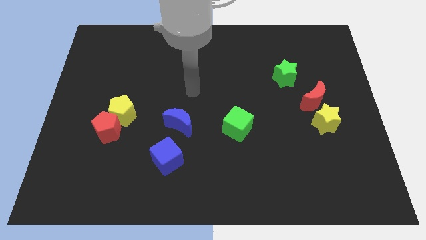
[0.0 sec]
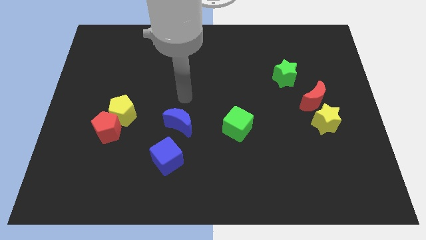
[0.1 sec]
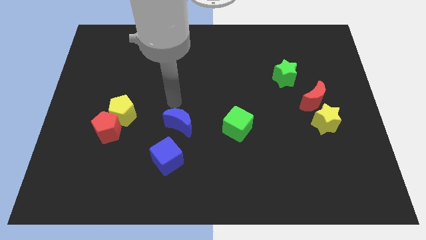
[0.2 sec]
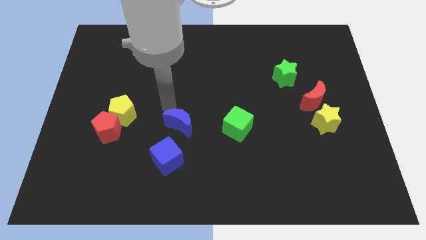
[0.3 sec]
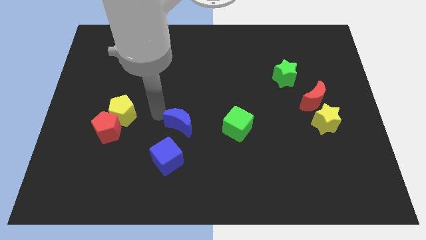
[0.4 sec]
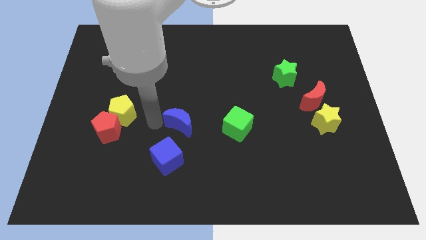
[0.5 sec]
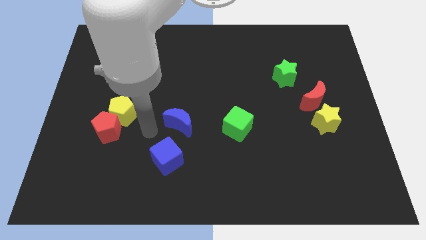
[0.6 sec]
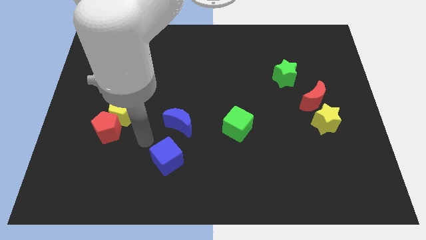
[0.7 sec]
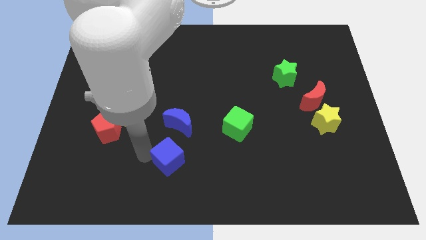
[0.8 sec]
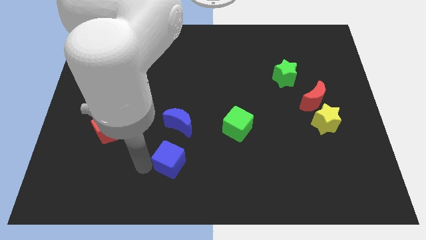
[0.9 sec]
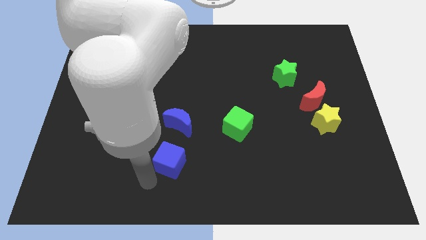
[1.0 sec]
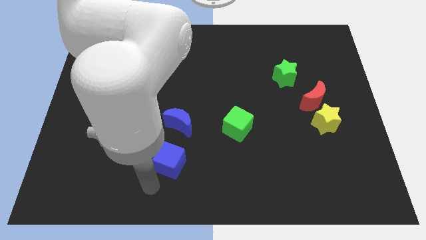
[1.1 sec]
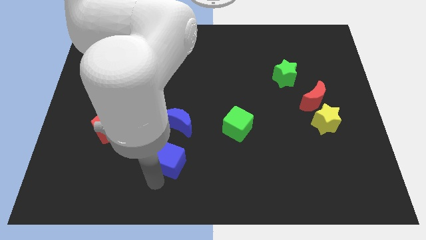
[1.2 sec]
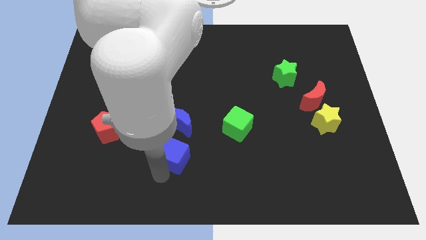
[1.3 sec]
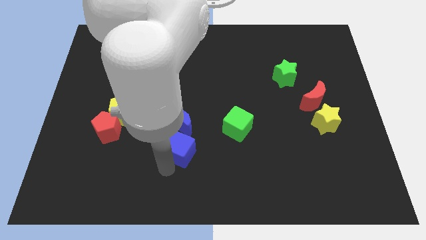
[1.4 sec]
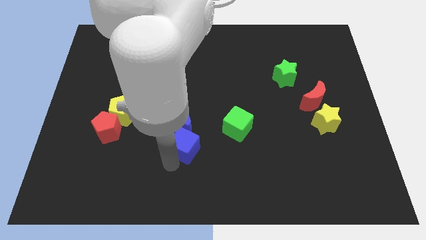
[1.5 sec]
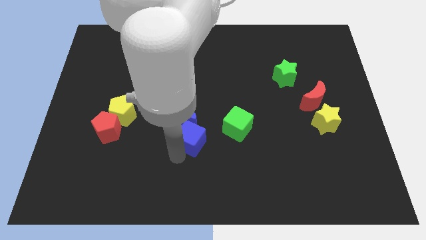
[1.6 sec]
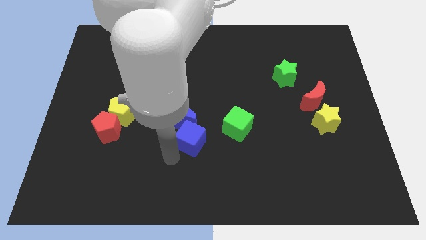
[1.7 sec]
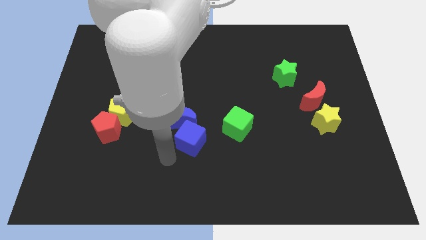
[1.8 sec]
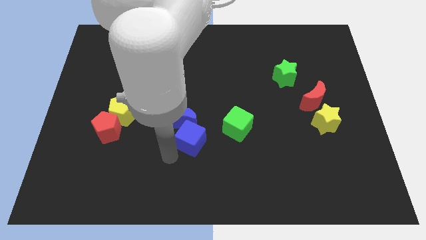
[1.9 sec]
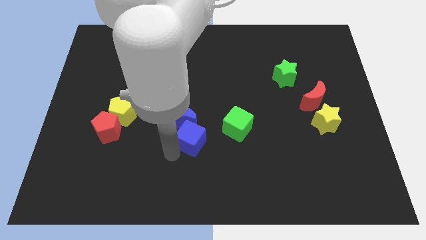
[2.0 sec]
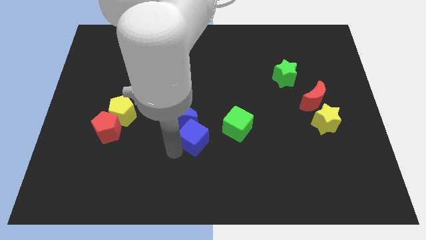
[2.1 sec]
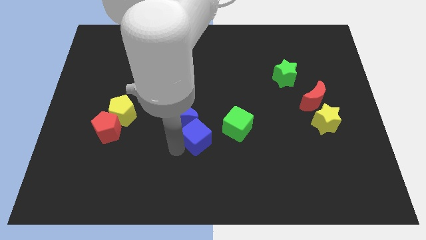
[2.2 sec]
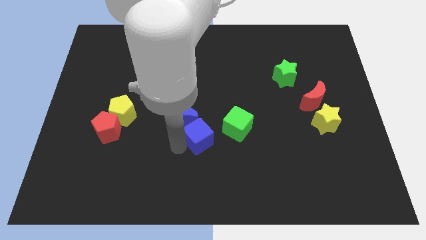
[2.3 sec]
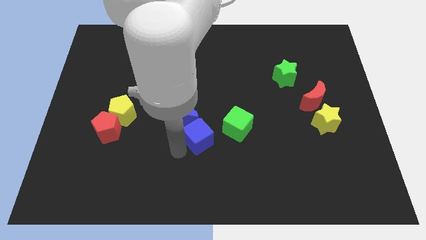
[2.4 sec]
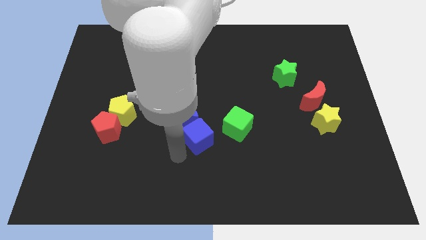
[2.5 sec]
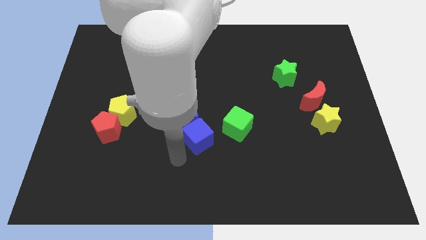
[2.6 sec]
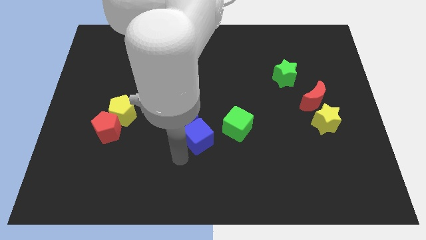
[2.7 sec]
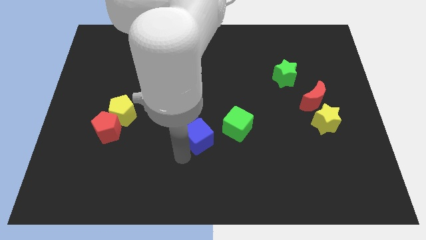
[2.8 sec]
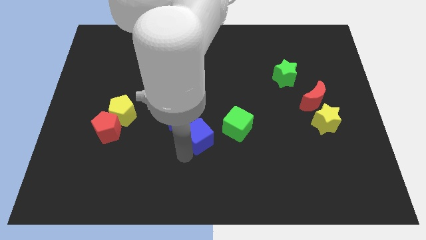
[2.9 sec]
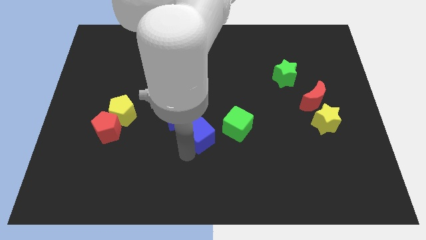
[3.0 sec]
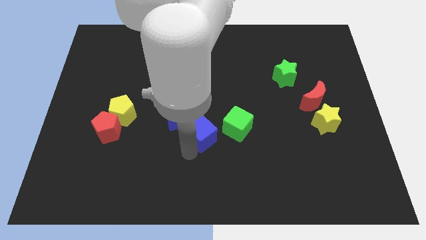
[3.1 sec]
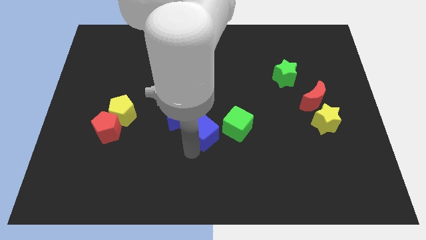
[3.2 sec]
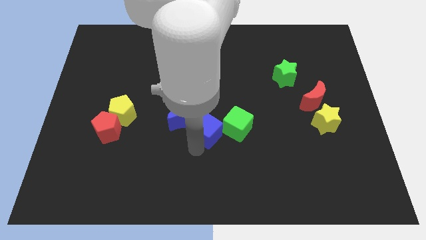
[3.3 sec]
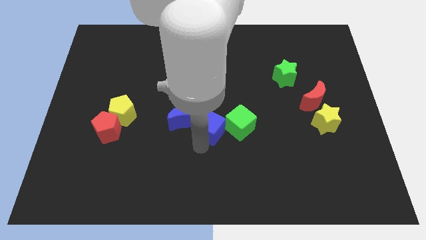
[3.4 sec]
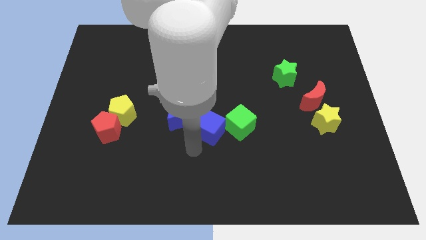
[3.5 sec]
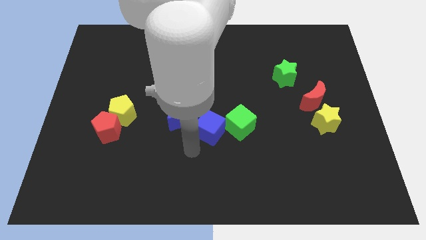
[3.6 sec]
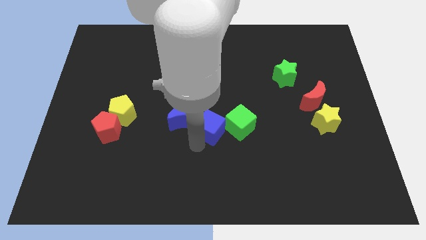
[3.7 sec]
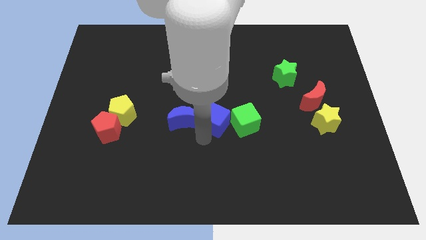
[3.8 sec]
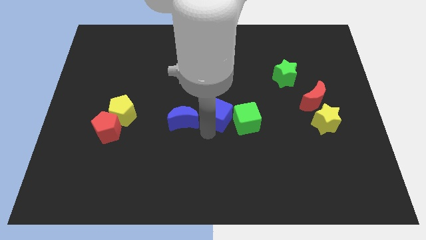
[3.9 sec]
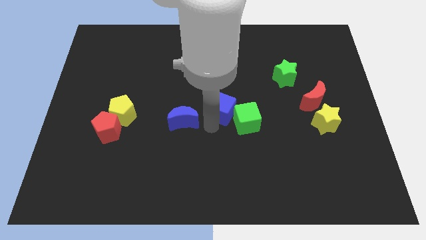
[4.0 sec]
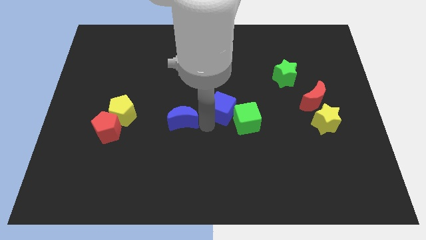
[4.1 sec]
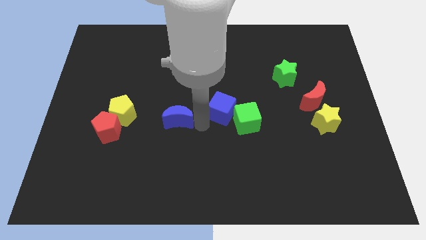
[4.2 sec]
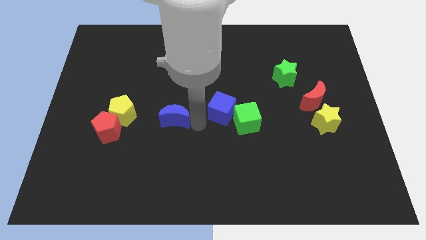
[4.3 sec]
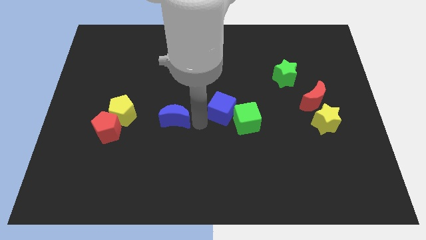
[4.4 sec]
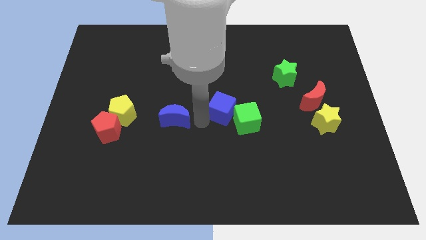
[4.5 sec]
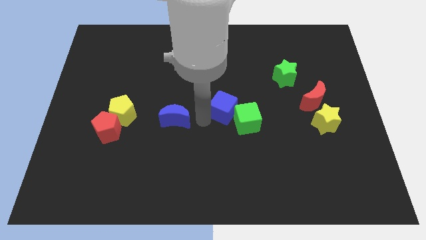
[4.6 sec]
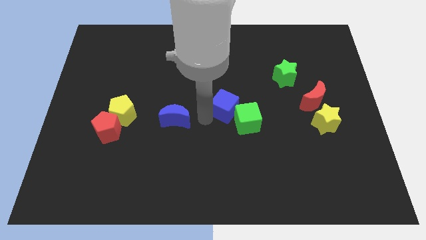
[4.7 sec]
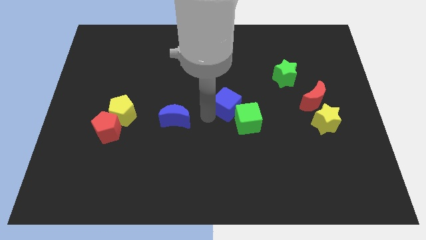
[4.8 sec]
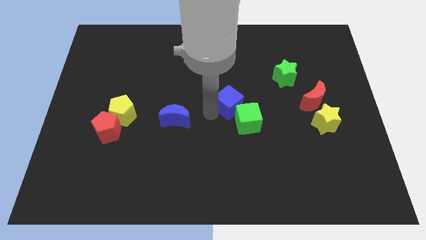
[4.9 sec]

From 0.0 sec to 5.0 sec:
push the blue cube upwards and right diagonally

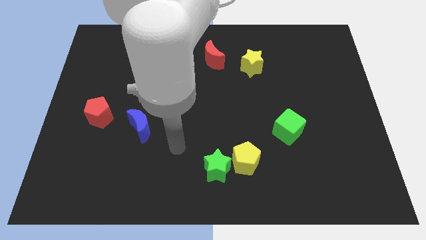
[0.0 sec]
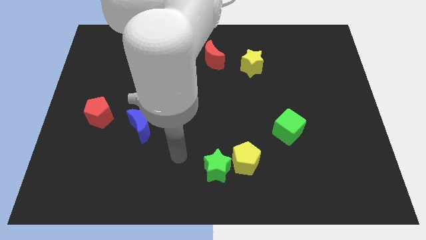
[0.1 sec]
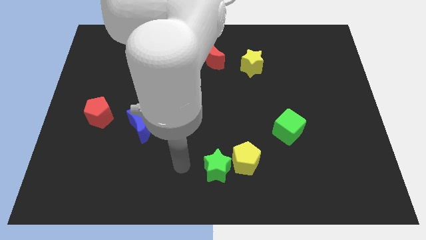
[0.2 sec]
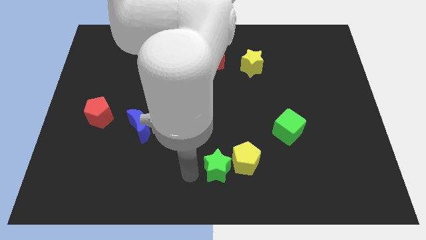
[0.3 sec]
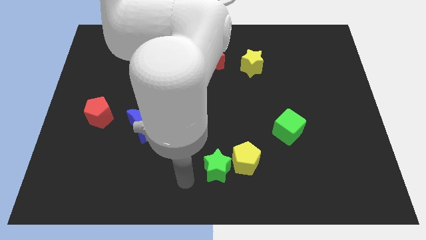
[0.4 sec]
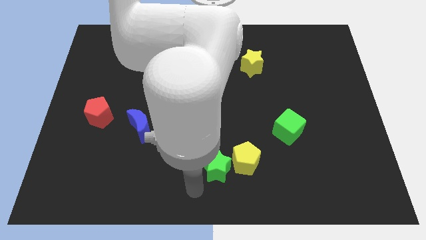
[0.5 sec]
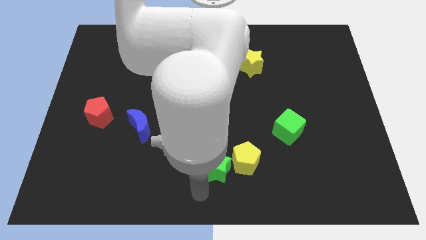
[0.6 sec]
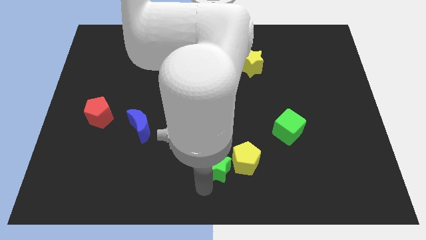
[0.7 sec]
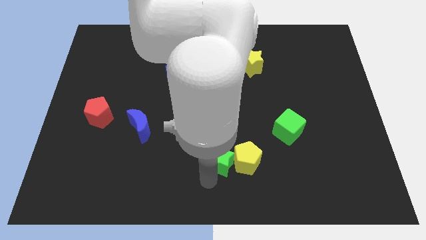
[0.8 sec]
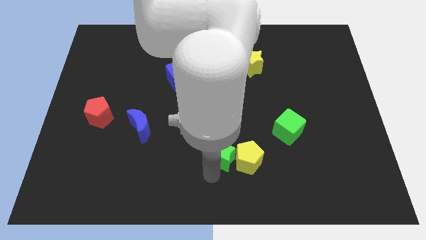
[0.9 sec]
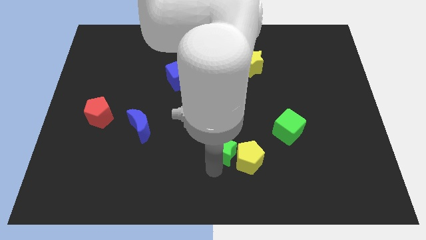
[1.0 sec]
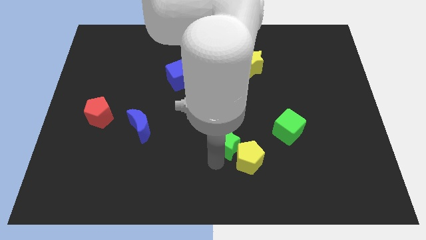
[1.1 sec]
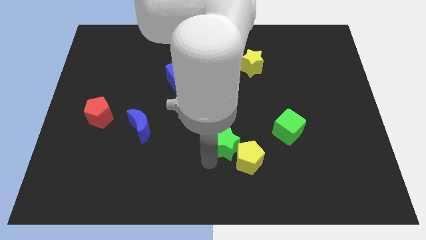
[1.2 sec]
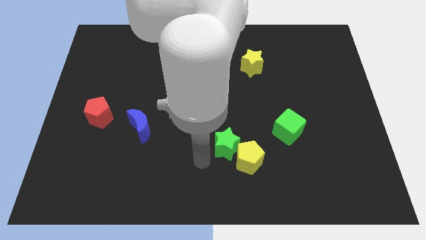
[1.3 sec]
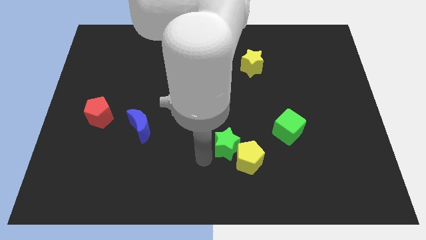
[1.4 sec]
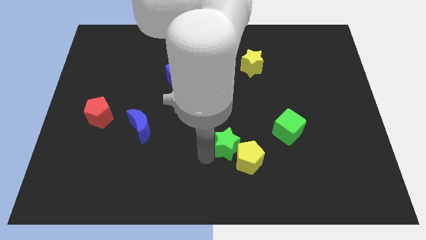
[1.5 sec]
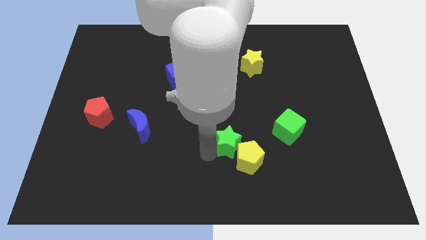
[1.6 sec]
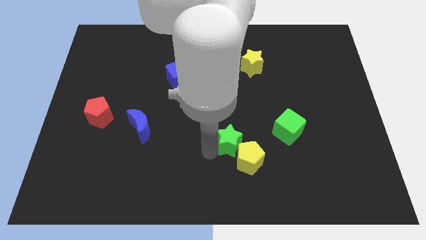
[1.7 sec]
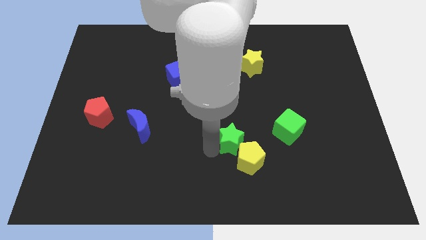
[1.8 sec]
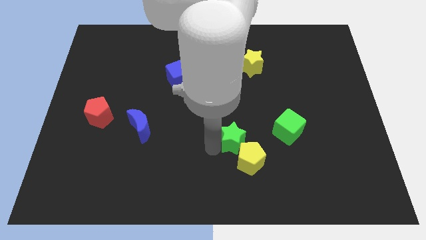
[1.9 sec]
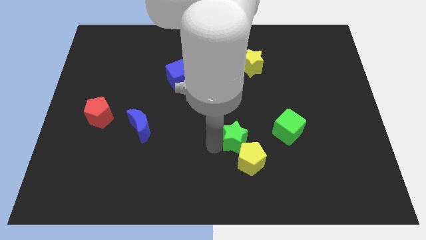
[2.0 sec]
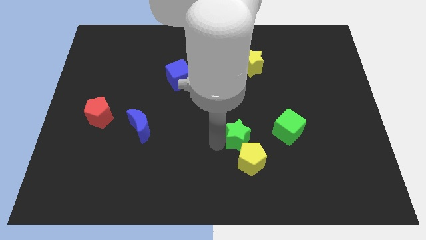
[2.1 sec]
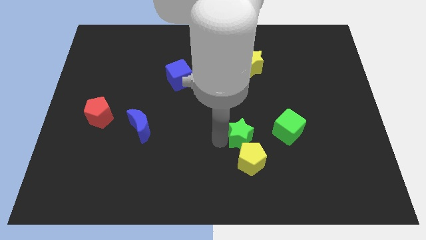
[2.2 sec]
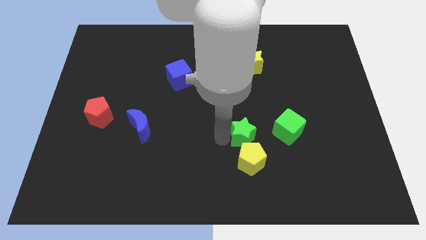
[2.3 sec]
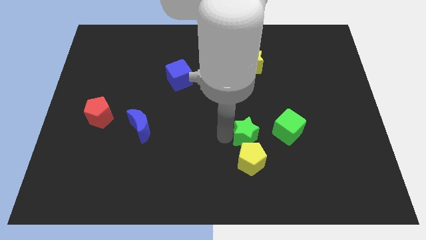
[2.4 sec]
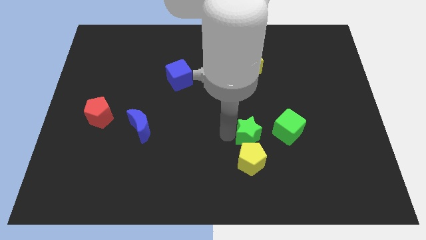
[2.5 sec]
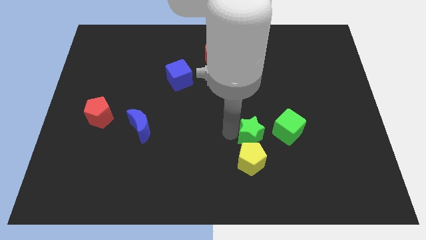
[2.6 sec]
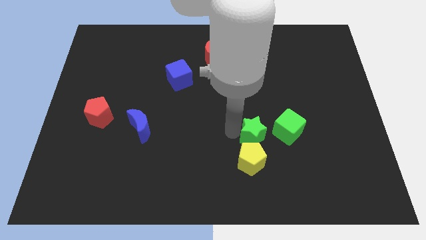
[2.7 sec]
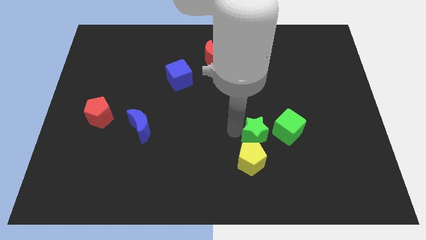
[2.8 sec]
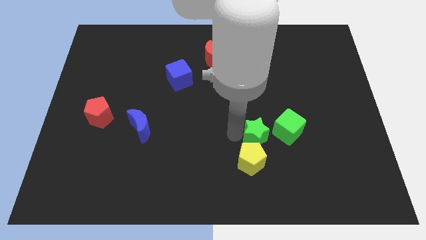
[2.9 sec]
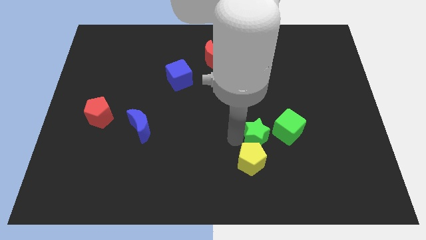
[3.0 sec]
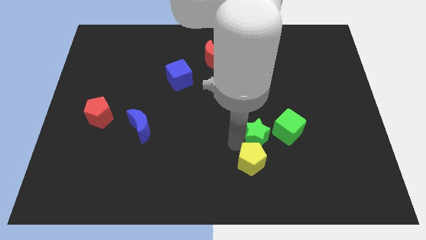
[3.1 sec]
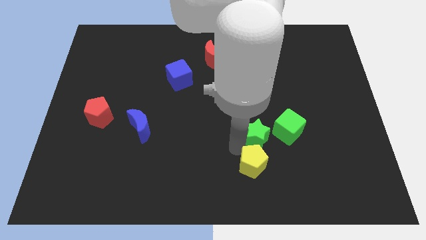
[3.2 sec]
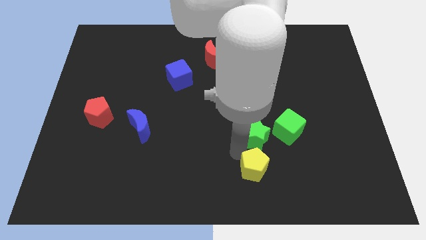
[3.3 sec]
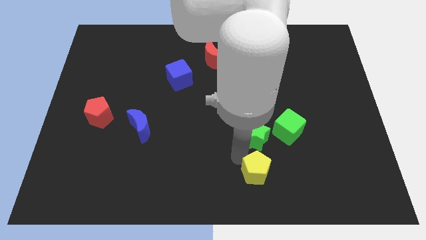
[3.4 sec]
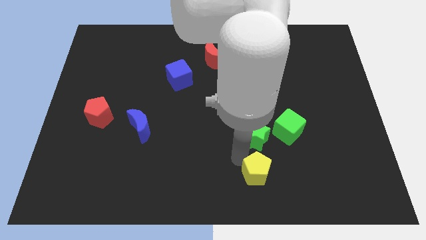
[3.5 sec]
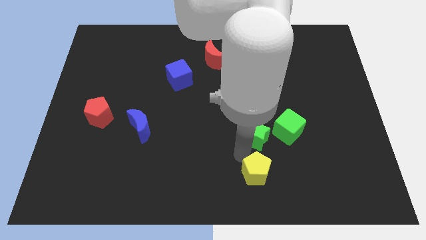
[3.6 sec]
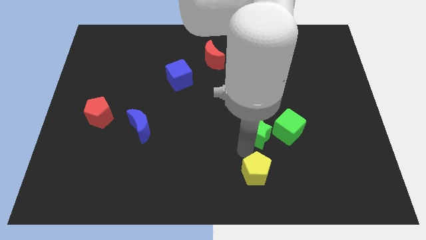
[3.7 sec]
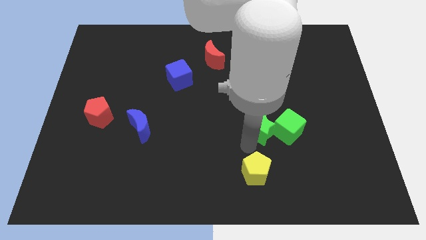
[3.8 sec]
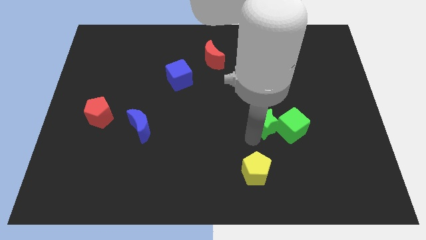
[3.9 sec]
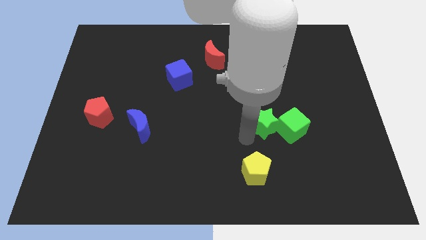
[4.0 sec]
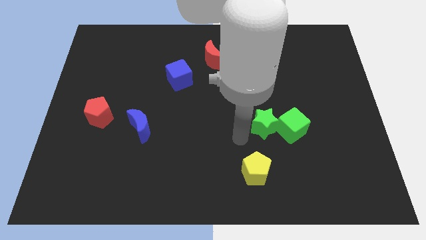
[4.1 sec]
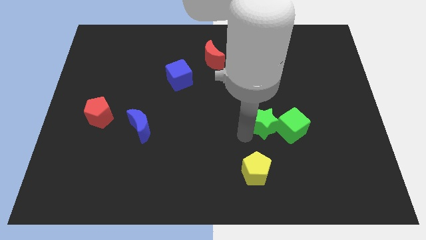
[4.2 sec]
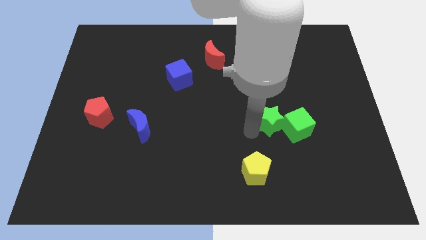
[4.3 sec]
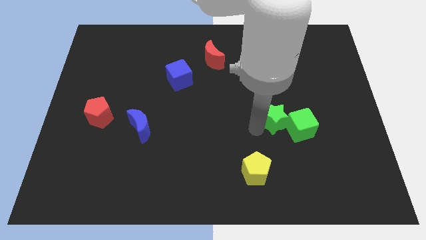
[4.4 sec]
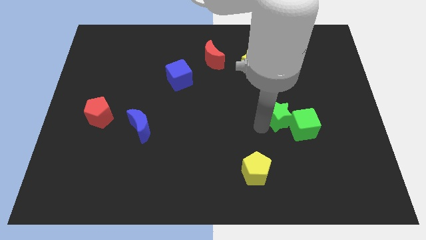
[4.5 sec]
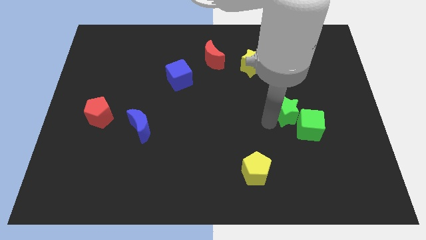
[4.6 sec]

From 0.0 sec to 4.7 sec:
slide the green star up and right
